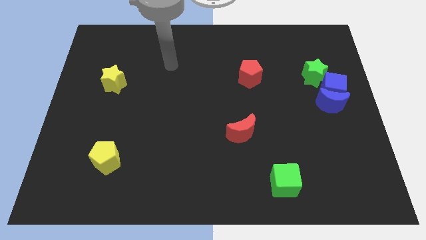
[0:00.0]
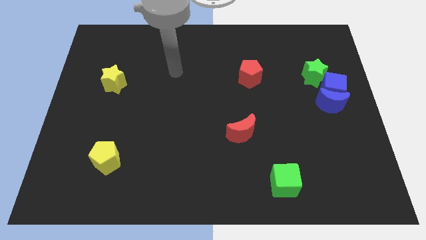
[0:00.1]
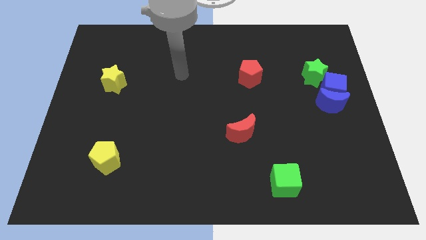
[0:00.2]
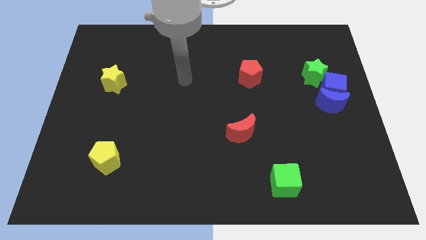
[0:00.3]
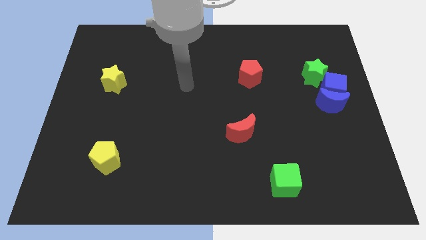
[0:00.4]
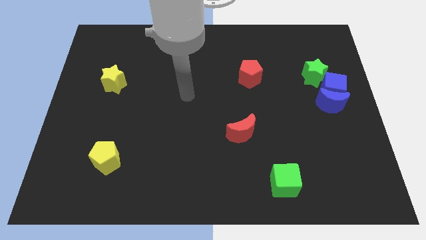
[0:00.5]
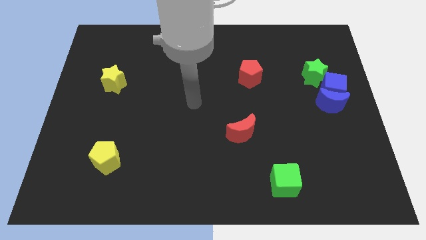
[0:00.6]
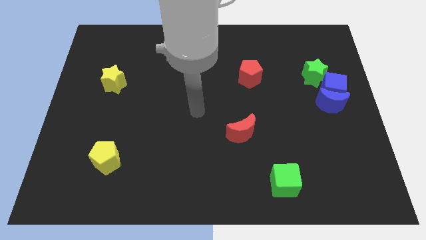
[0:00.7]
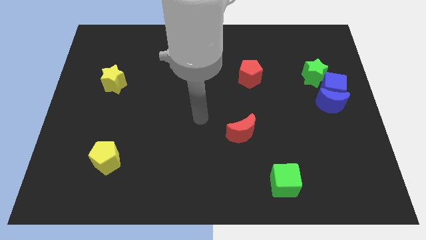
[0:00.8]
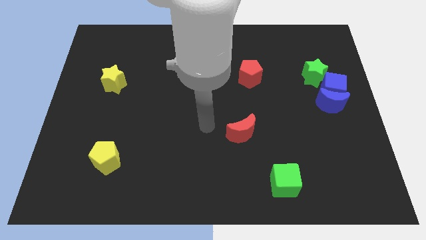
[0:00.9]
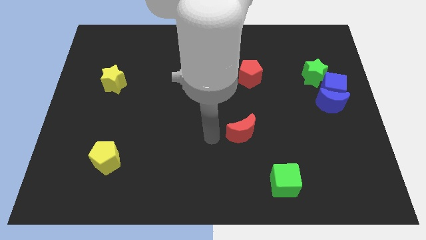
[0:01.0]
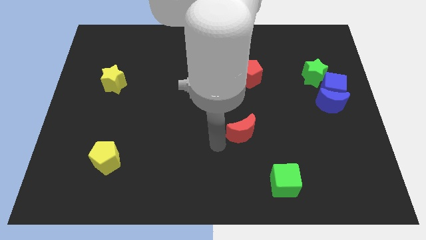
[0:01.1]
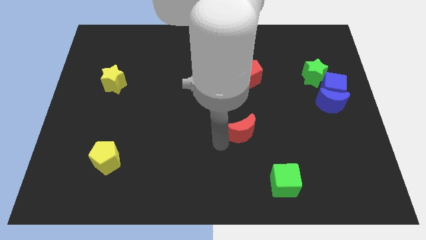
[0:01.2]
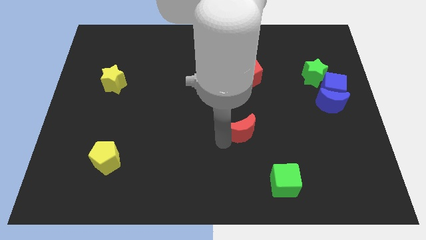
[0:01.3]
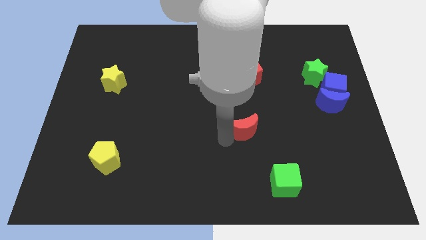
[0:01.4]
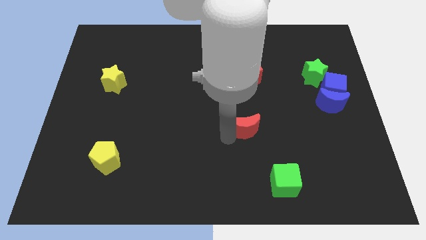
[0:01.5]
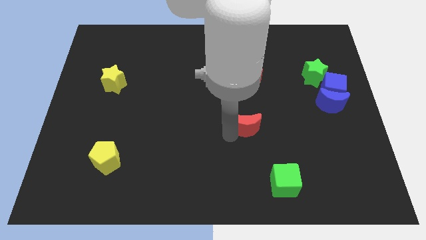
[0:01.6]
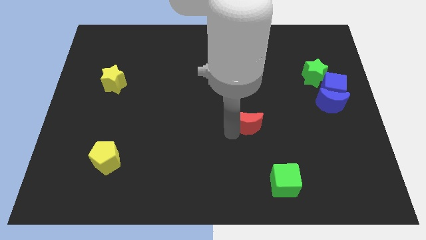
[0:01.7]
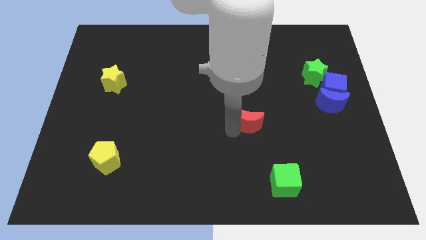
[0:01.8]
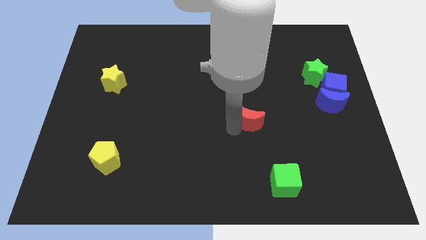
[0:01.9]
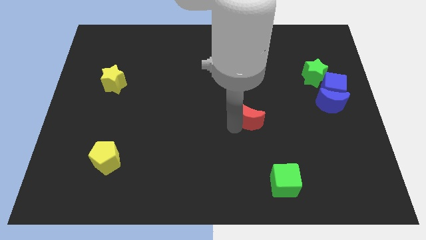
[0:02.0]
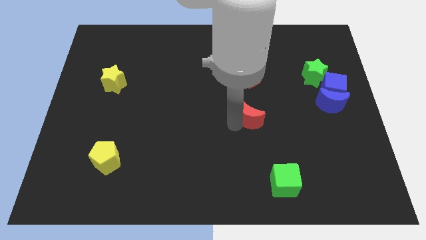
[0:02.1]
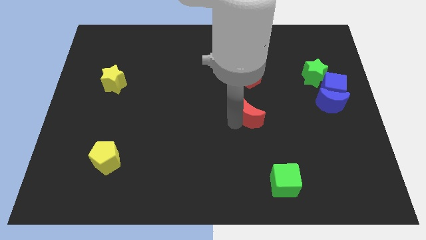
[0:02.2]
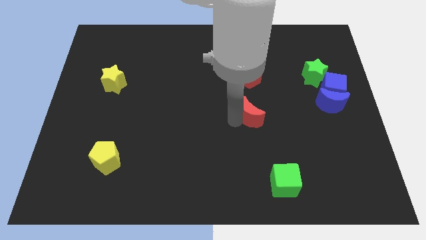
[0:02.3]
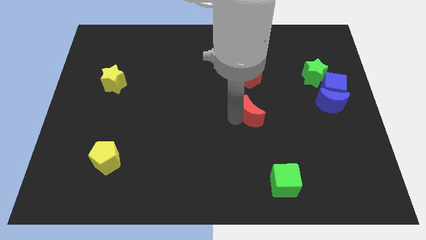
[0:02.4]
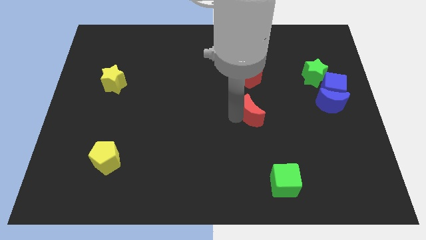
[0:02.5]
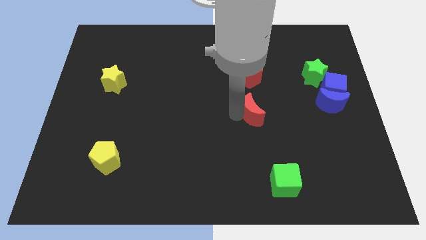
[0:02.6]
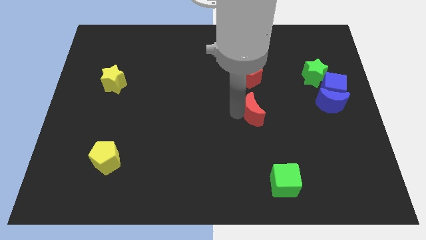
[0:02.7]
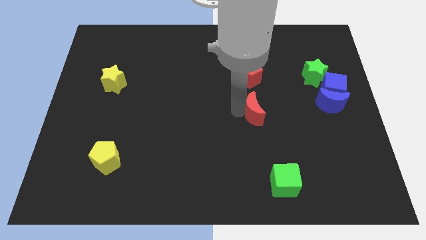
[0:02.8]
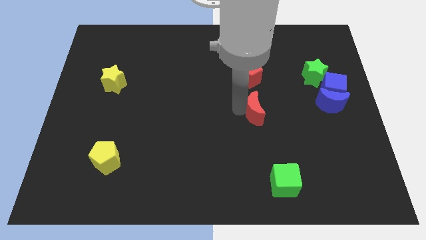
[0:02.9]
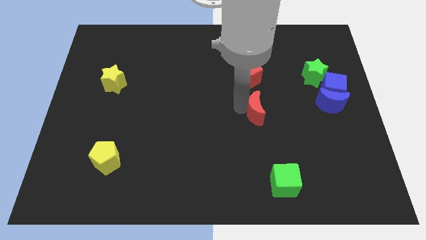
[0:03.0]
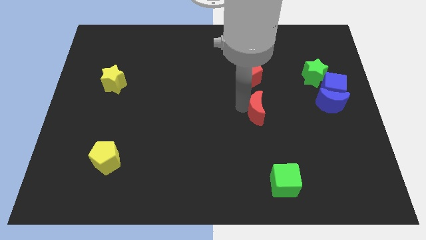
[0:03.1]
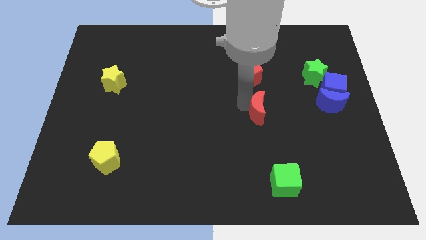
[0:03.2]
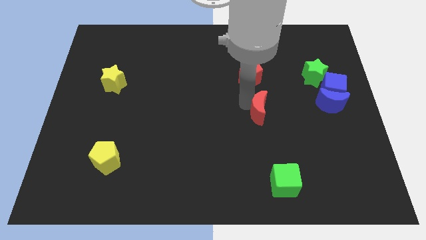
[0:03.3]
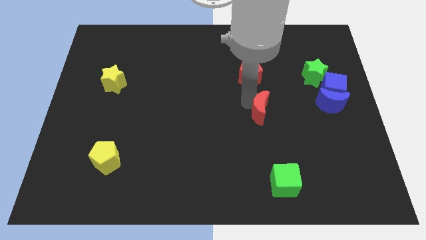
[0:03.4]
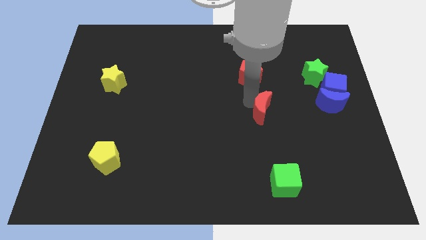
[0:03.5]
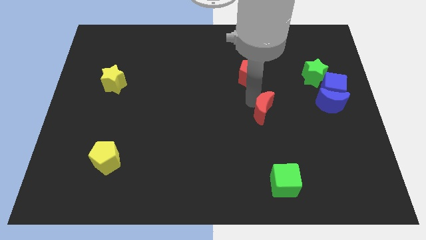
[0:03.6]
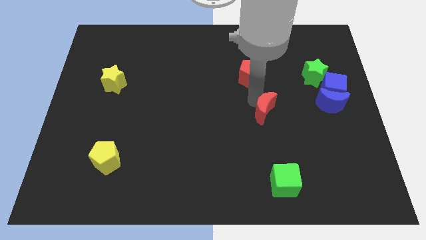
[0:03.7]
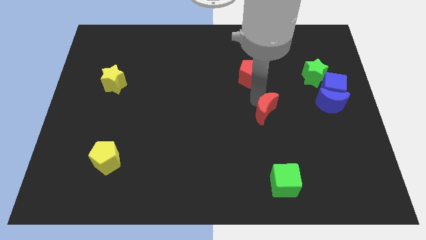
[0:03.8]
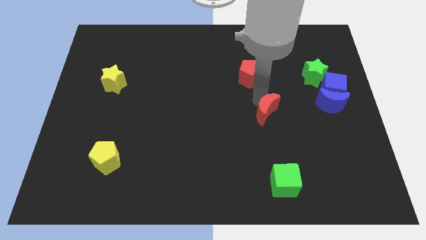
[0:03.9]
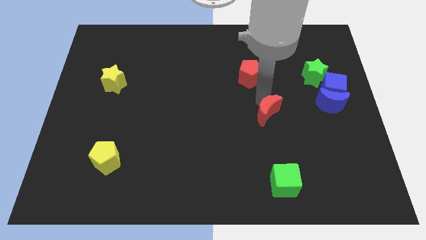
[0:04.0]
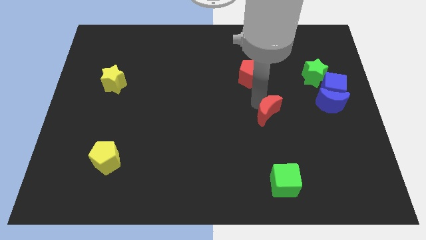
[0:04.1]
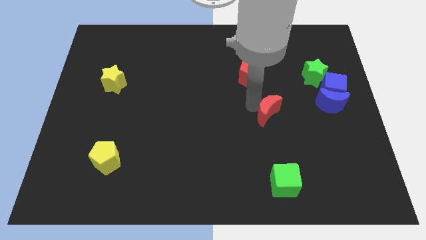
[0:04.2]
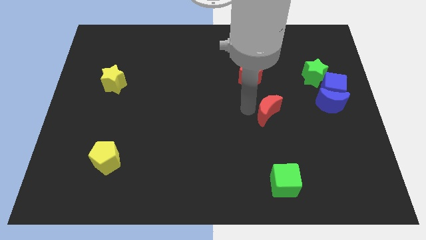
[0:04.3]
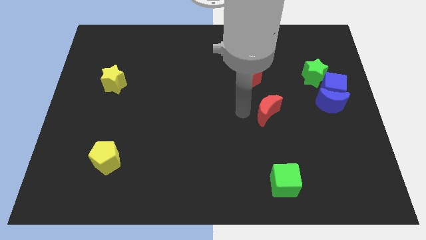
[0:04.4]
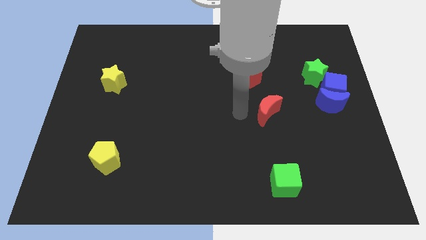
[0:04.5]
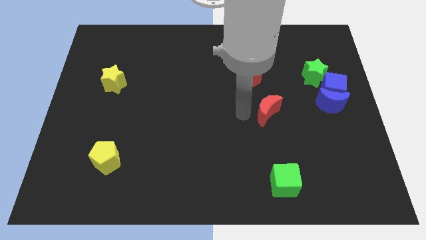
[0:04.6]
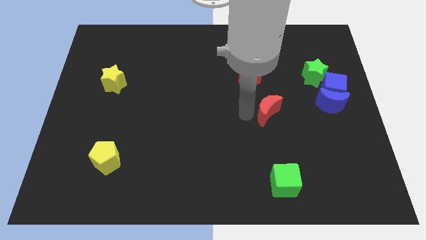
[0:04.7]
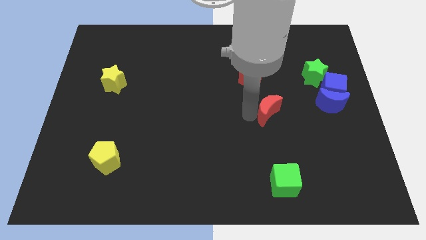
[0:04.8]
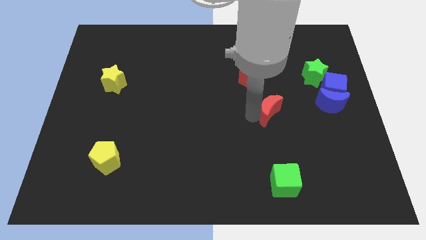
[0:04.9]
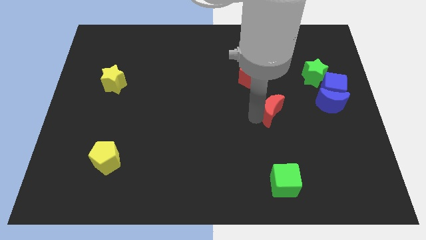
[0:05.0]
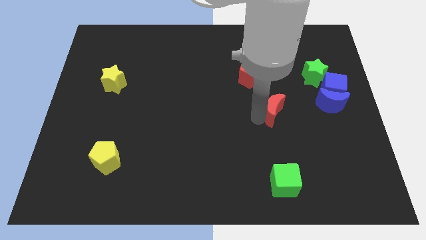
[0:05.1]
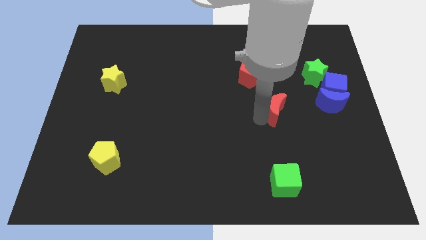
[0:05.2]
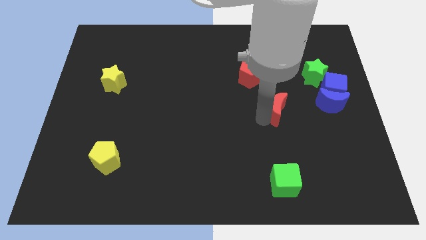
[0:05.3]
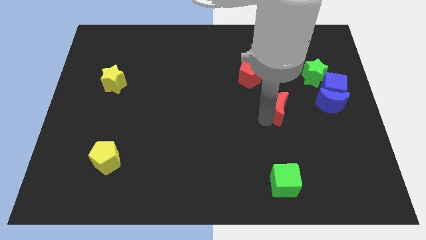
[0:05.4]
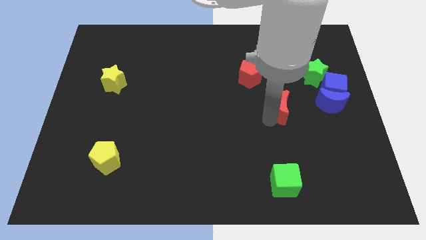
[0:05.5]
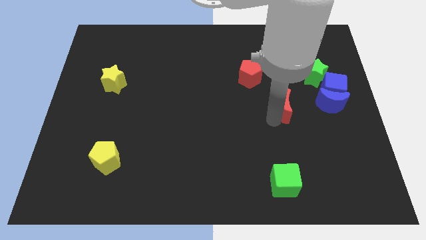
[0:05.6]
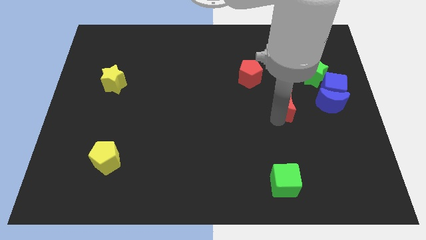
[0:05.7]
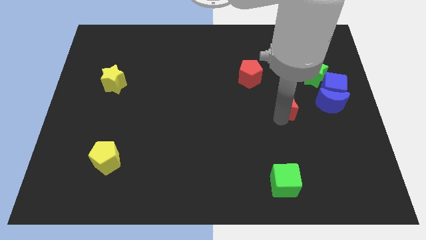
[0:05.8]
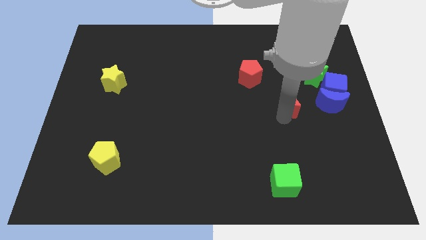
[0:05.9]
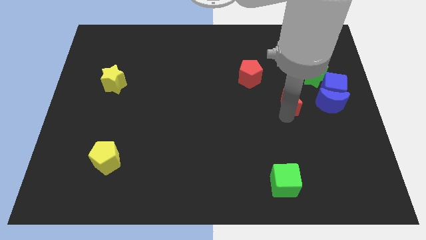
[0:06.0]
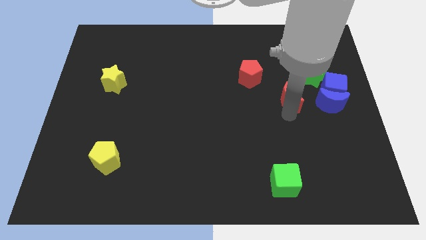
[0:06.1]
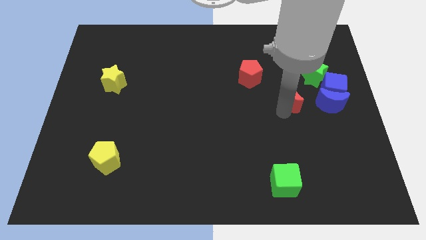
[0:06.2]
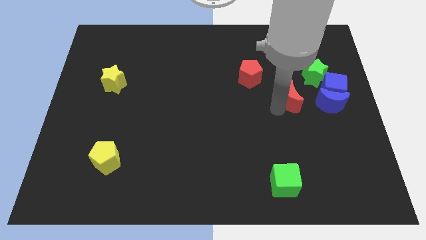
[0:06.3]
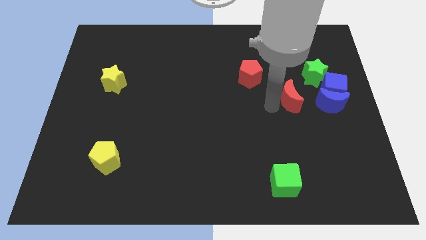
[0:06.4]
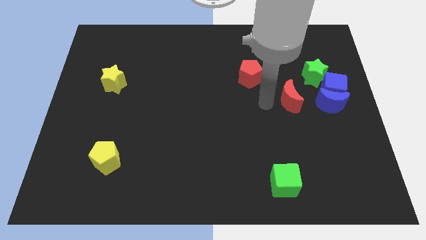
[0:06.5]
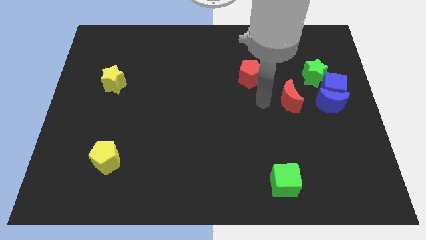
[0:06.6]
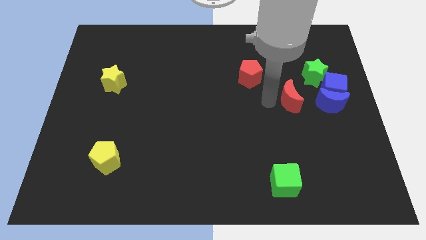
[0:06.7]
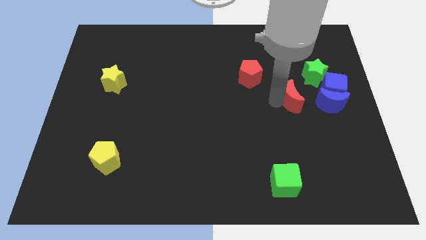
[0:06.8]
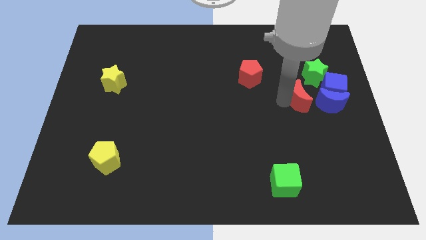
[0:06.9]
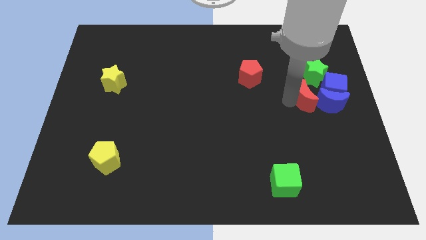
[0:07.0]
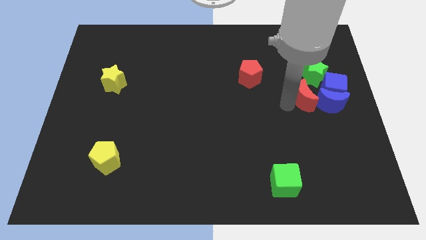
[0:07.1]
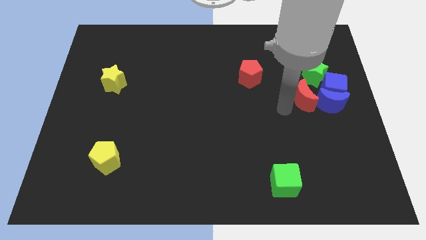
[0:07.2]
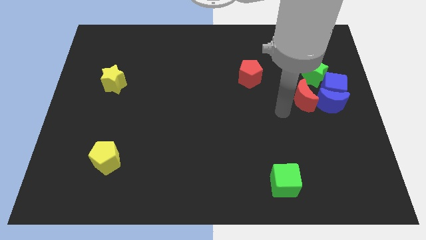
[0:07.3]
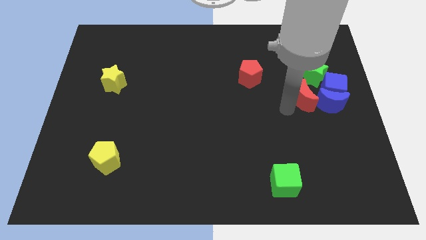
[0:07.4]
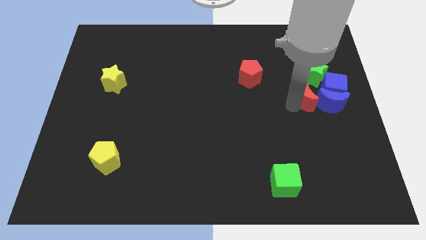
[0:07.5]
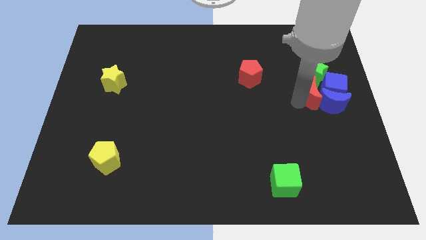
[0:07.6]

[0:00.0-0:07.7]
move the red moon next to the blue cube
